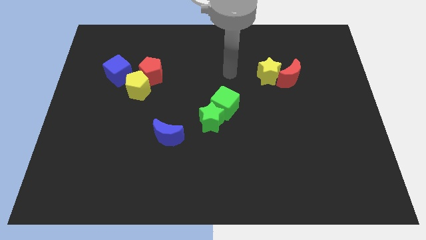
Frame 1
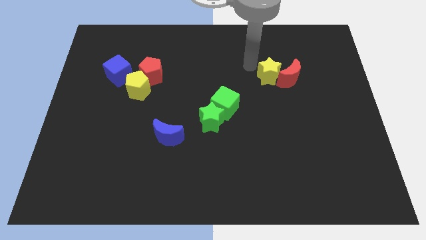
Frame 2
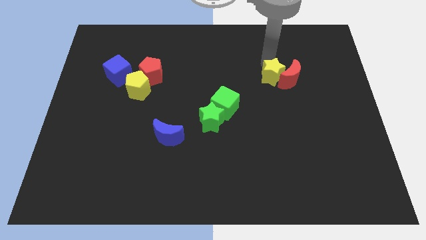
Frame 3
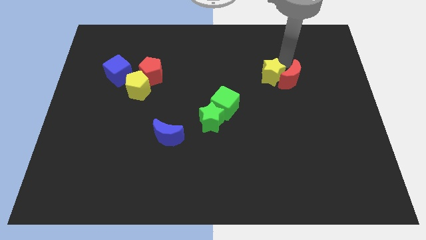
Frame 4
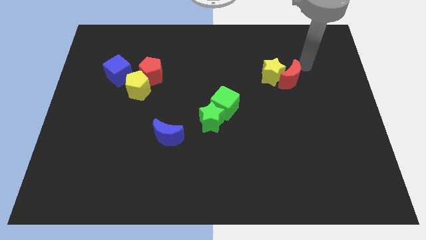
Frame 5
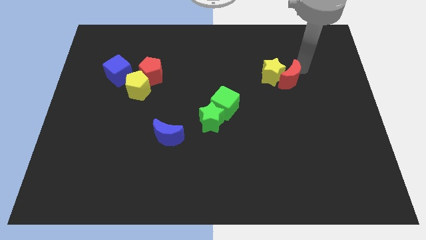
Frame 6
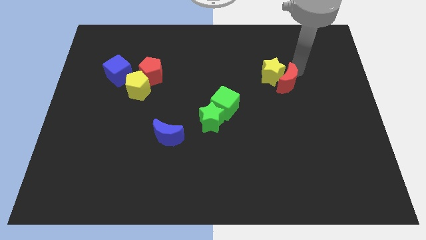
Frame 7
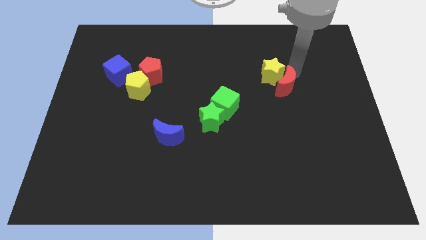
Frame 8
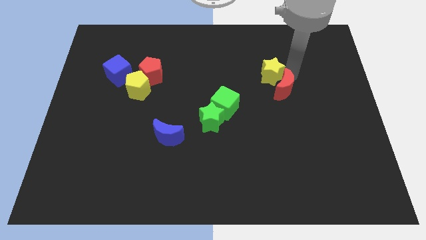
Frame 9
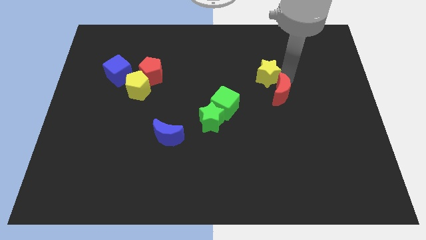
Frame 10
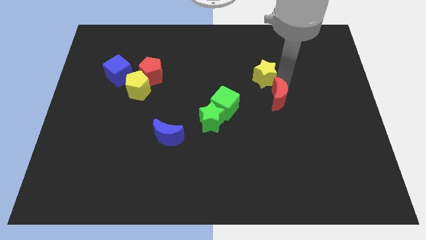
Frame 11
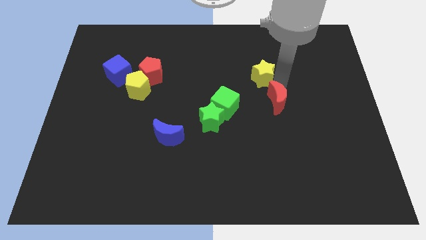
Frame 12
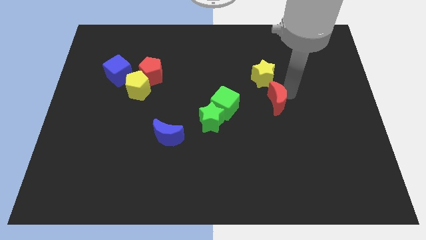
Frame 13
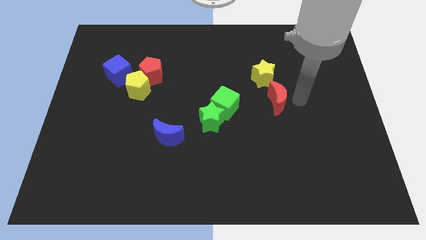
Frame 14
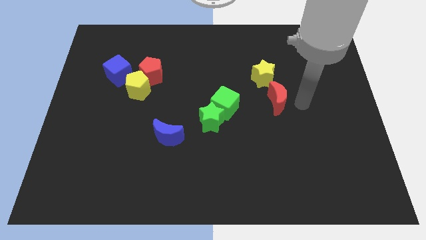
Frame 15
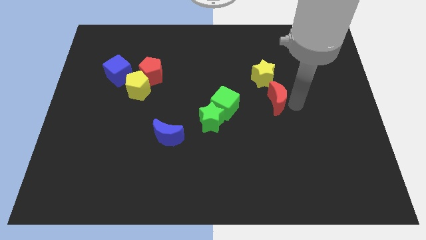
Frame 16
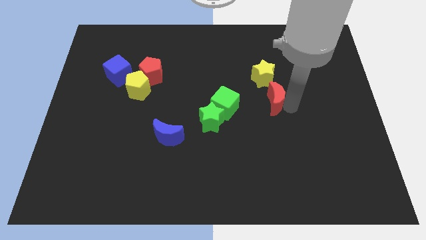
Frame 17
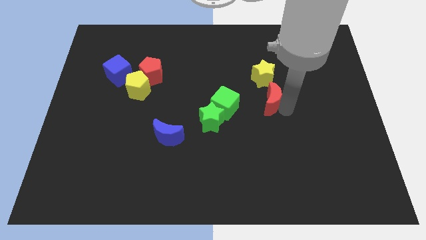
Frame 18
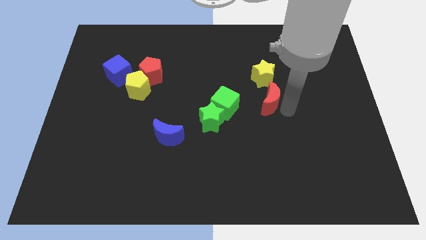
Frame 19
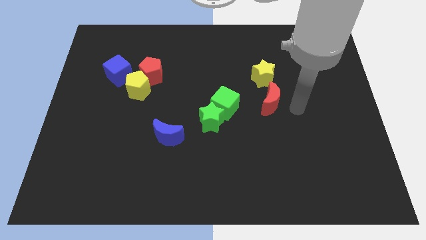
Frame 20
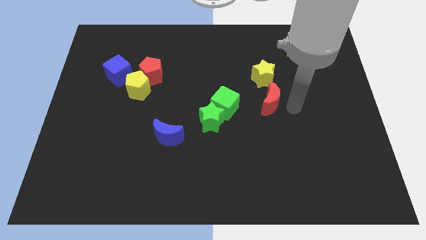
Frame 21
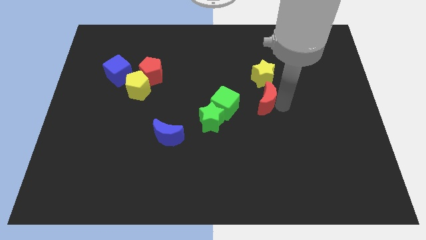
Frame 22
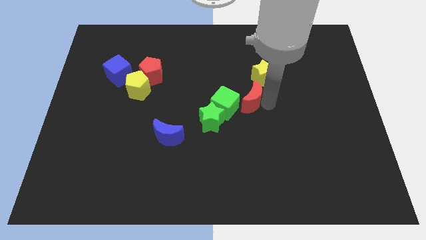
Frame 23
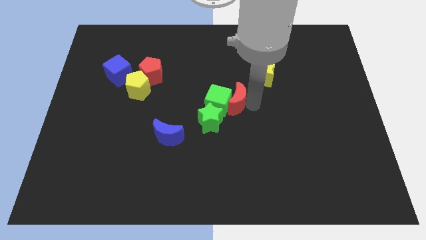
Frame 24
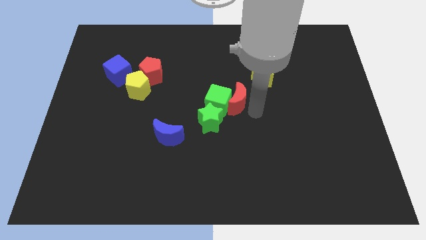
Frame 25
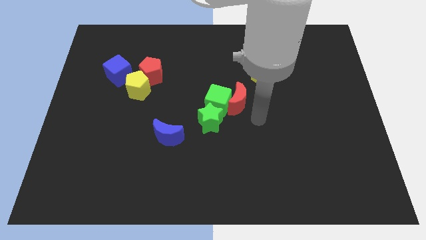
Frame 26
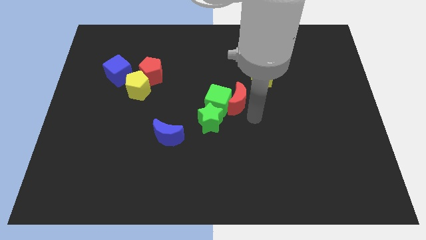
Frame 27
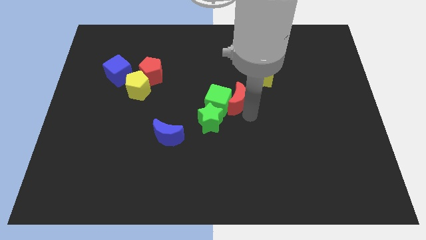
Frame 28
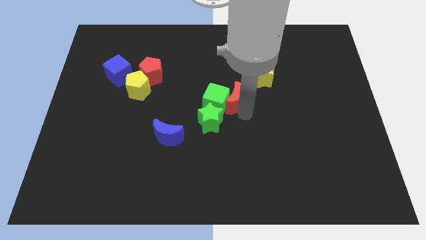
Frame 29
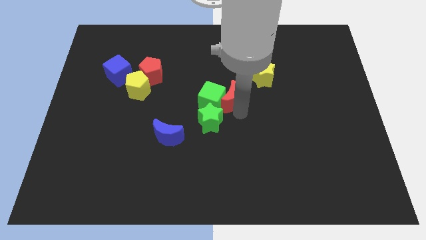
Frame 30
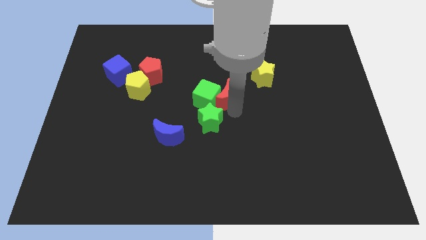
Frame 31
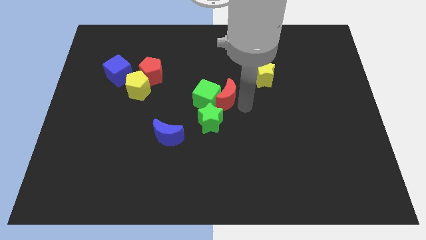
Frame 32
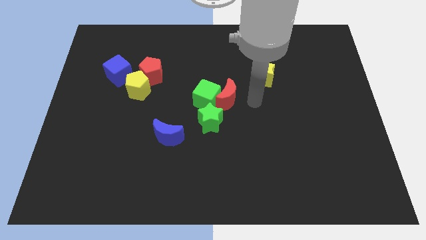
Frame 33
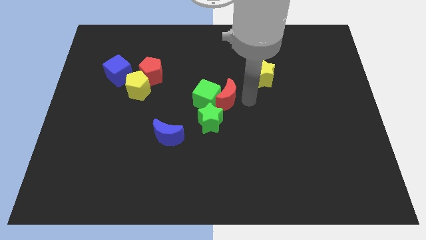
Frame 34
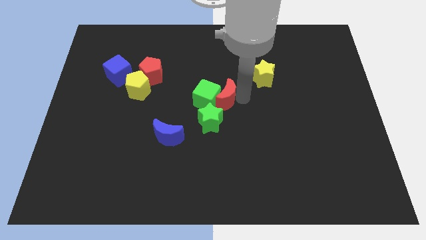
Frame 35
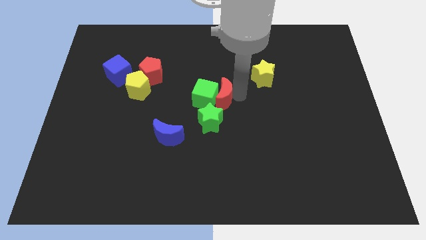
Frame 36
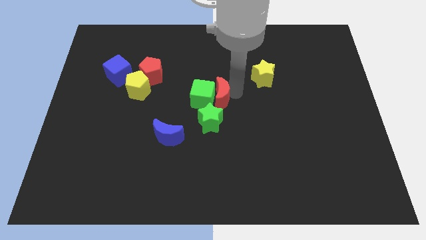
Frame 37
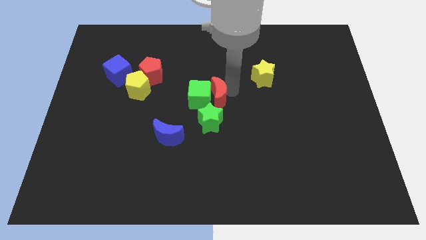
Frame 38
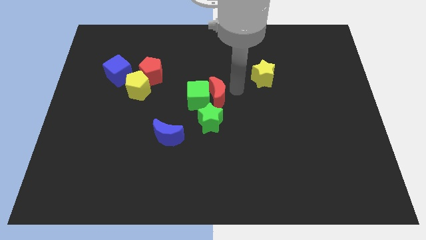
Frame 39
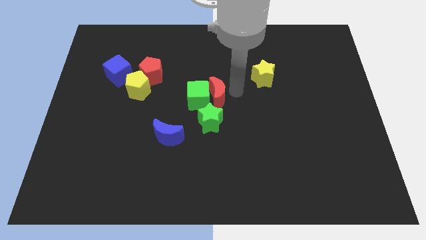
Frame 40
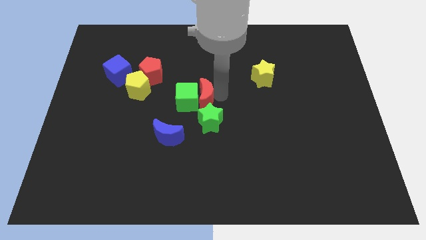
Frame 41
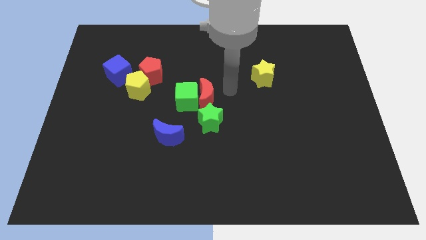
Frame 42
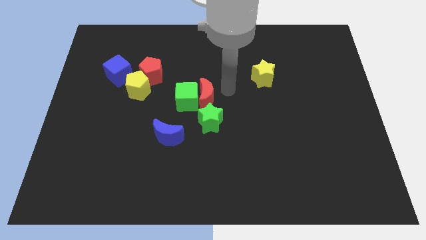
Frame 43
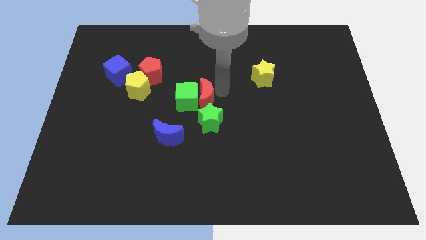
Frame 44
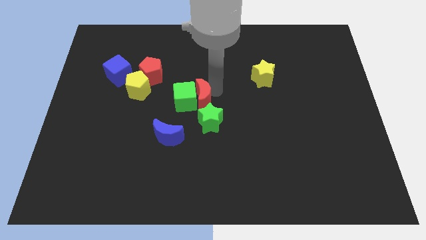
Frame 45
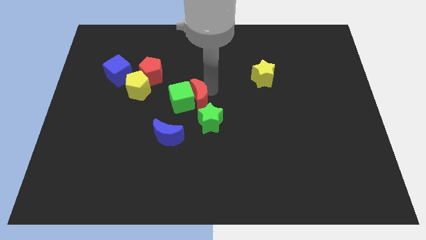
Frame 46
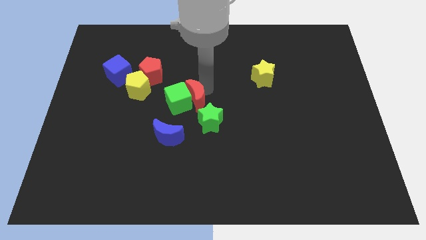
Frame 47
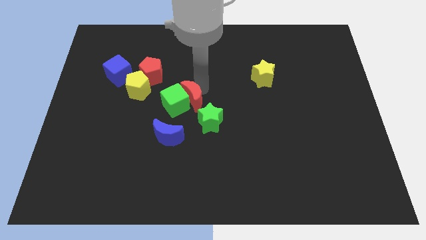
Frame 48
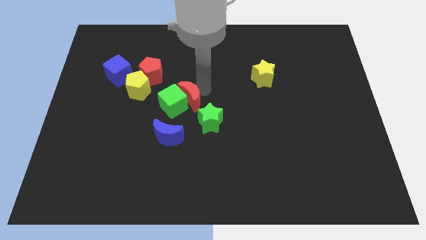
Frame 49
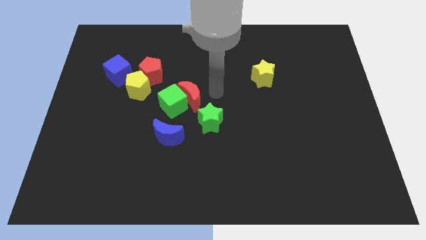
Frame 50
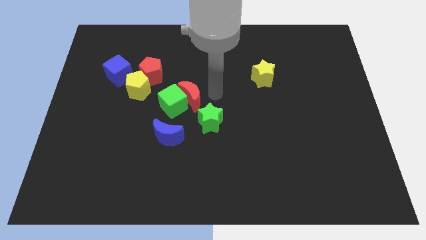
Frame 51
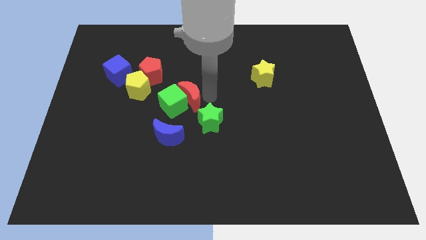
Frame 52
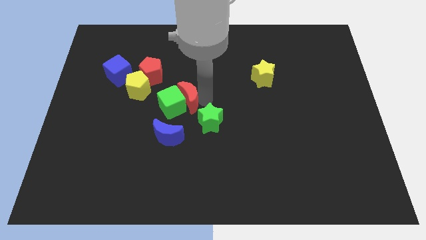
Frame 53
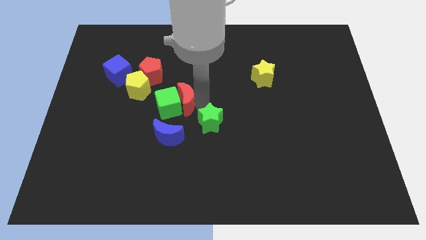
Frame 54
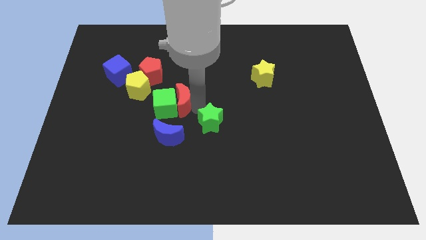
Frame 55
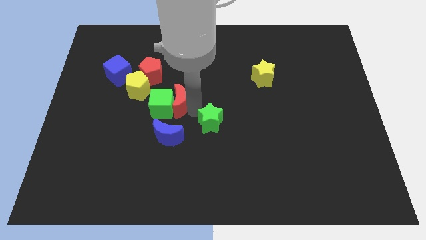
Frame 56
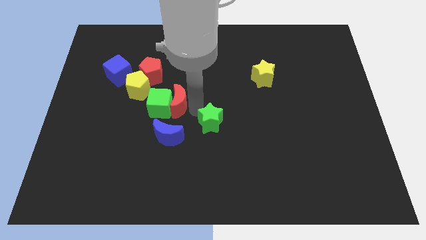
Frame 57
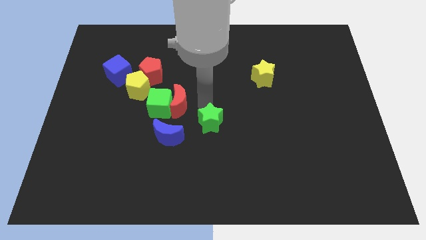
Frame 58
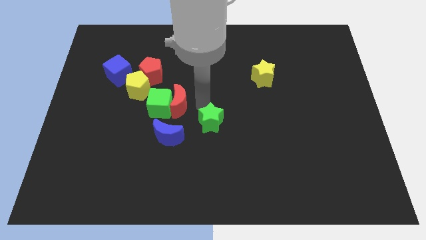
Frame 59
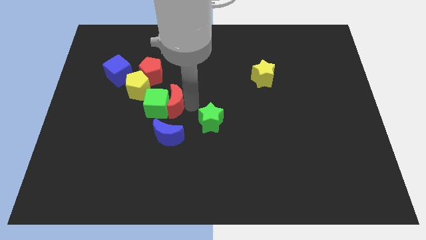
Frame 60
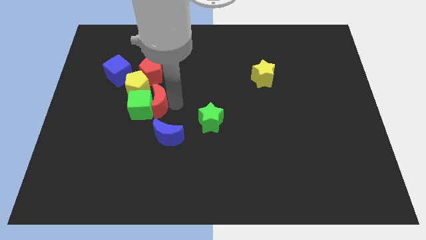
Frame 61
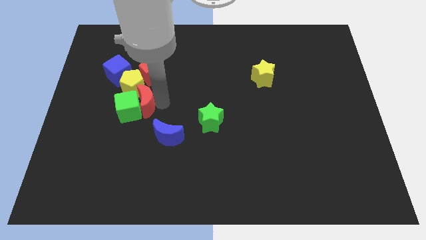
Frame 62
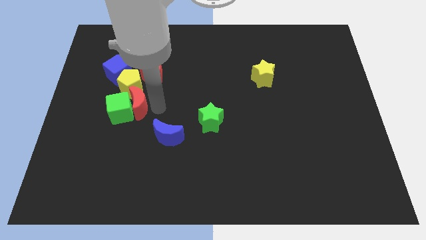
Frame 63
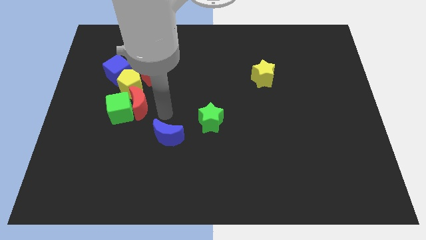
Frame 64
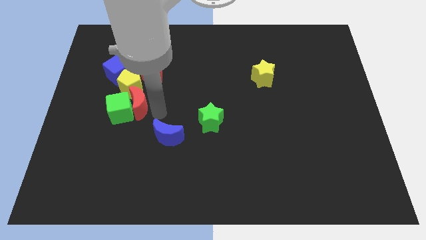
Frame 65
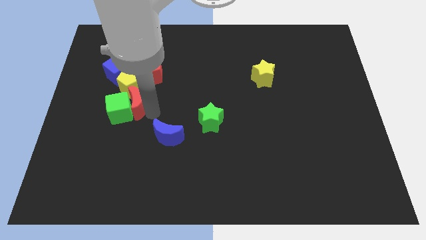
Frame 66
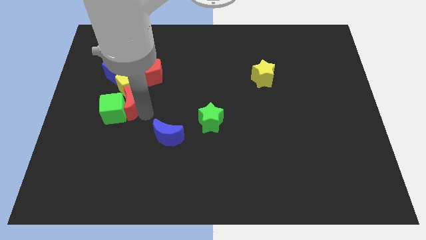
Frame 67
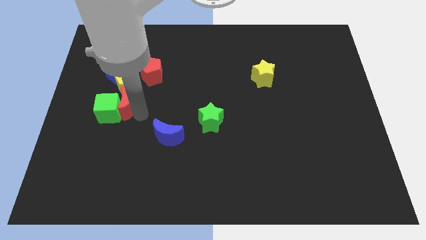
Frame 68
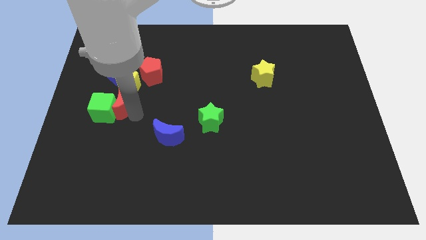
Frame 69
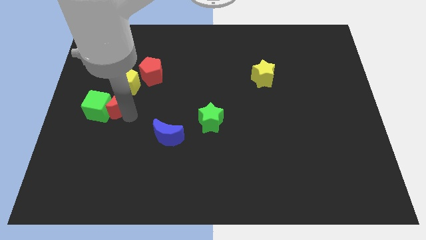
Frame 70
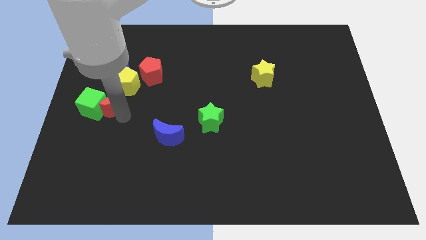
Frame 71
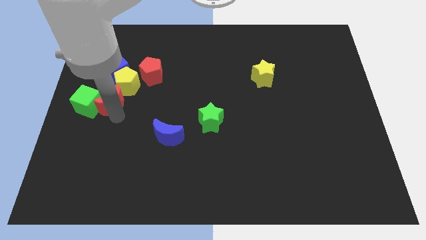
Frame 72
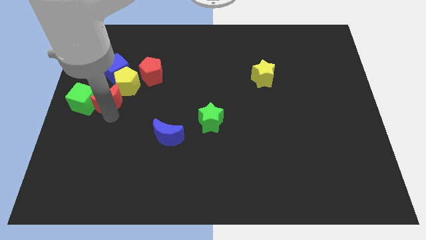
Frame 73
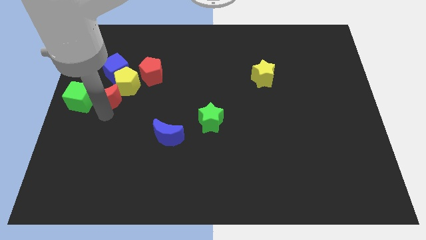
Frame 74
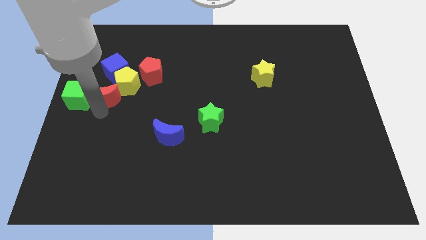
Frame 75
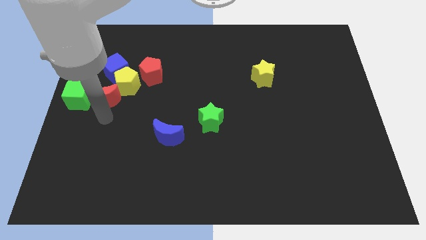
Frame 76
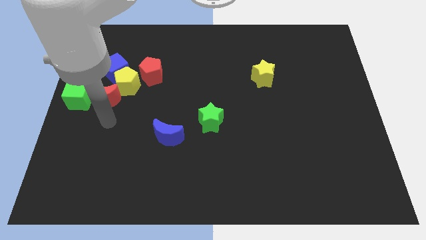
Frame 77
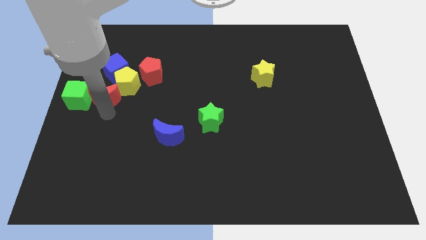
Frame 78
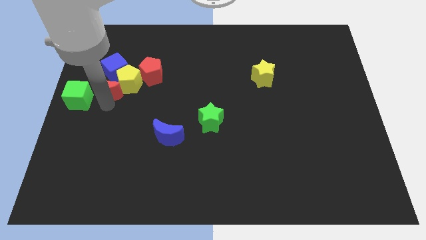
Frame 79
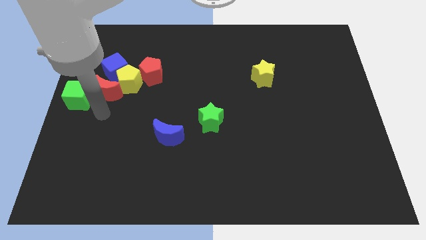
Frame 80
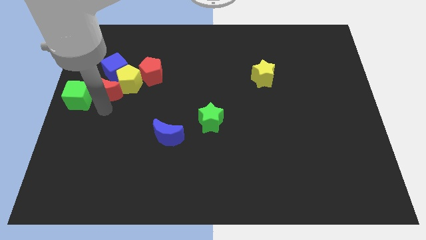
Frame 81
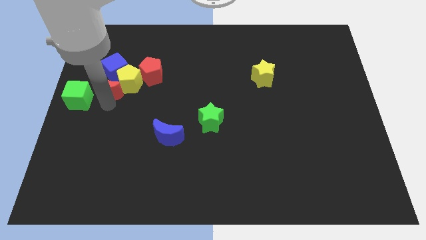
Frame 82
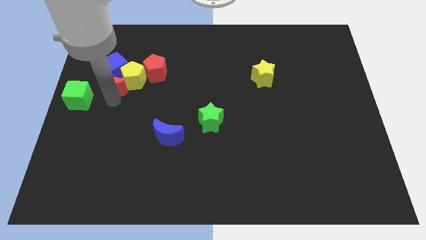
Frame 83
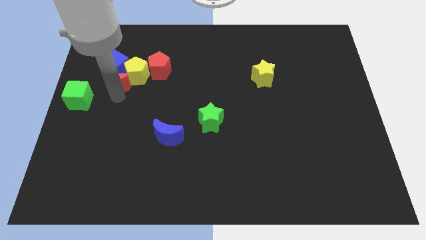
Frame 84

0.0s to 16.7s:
put the red moon to the left of the red pentagon
